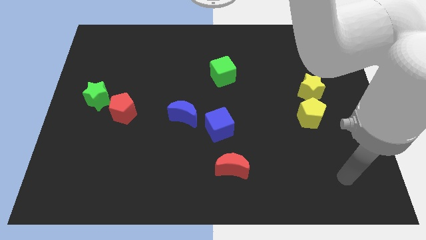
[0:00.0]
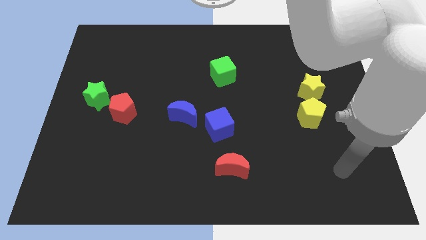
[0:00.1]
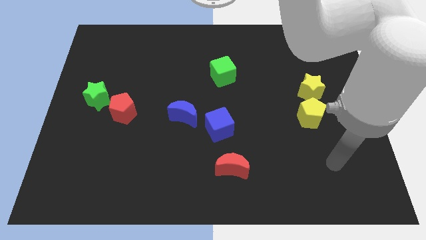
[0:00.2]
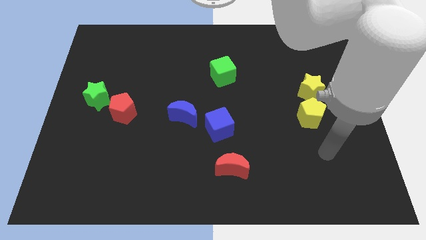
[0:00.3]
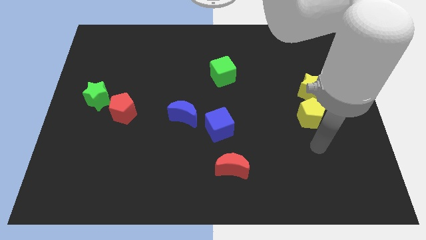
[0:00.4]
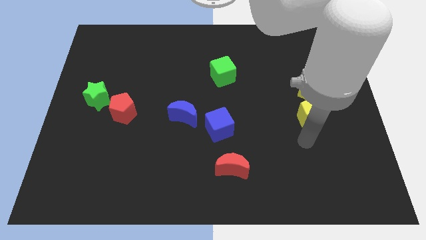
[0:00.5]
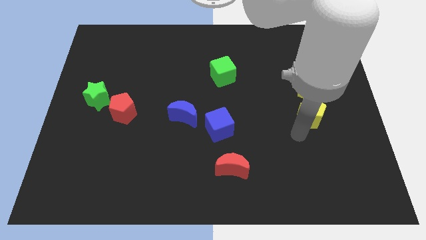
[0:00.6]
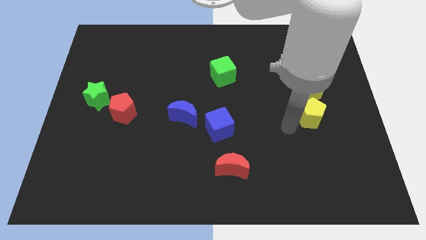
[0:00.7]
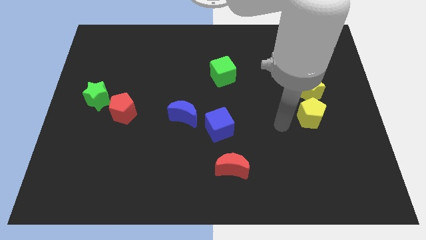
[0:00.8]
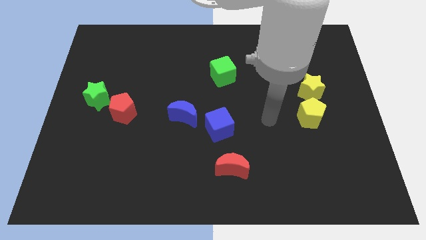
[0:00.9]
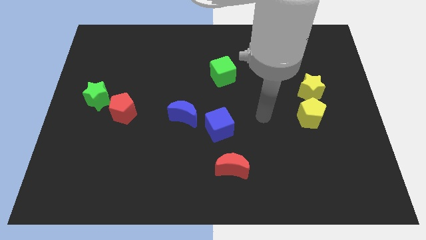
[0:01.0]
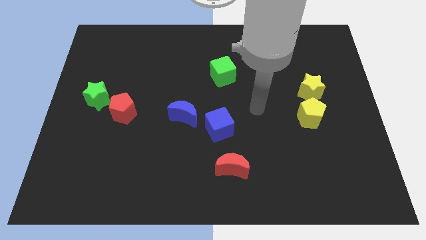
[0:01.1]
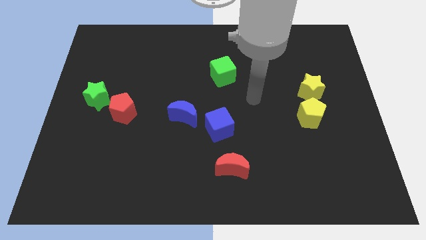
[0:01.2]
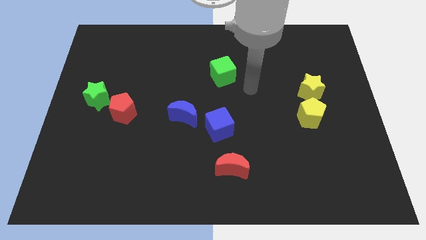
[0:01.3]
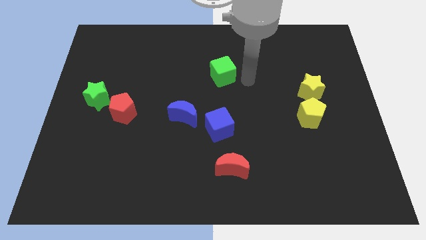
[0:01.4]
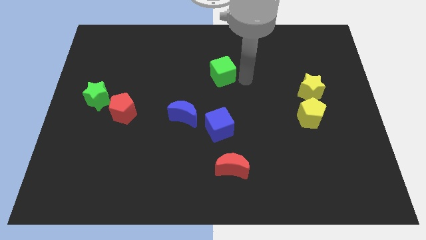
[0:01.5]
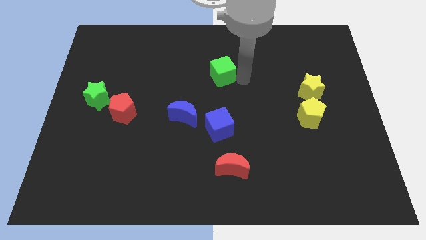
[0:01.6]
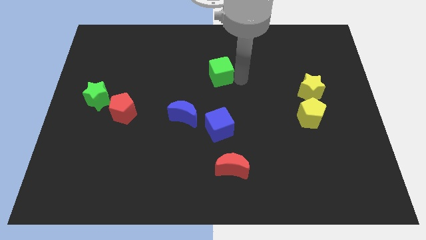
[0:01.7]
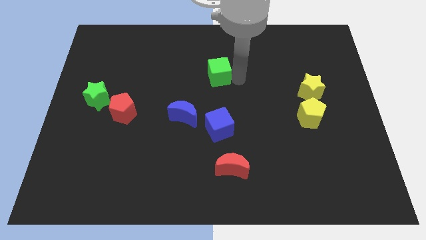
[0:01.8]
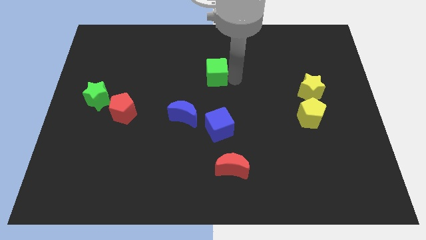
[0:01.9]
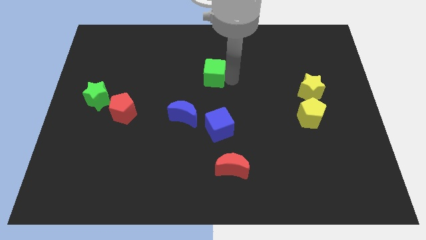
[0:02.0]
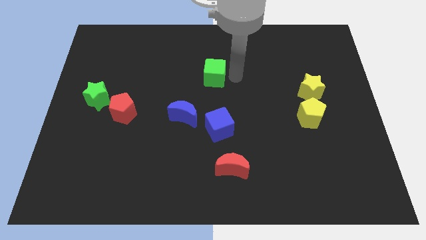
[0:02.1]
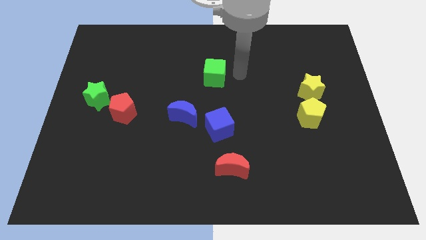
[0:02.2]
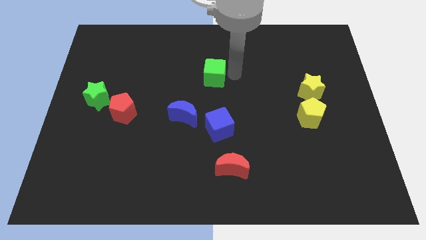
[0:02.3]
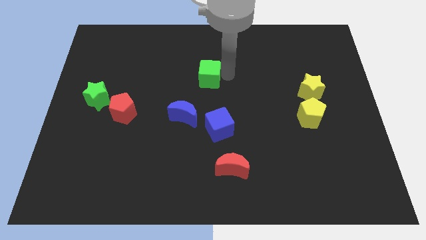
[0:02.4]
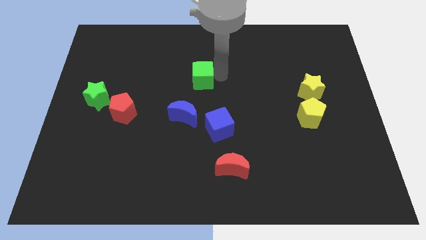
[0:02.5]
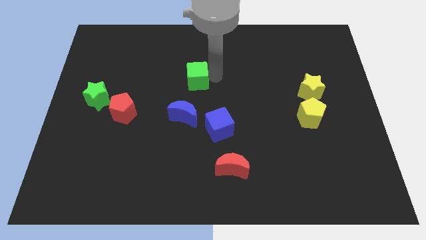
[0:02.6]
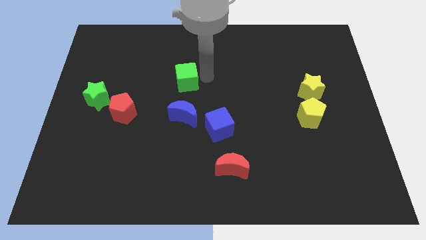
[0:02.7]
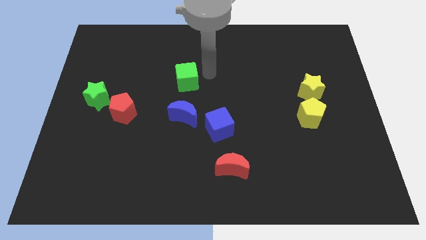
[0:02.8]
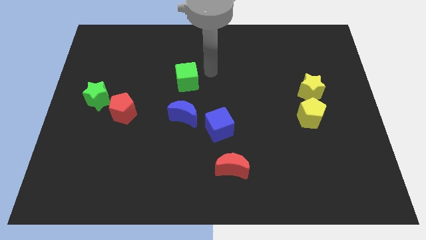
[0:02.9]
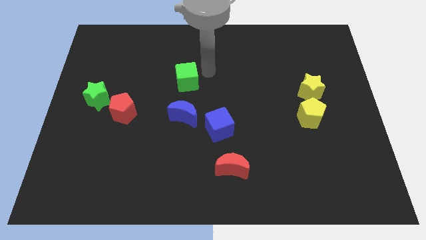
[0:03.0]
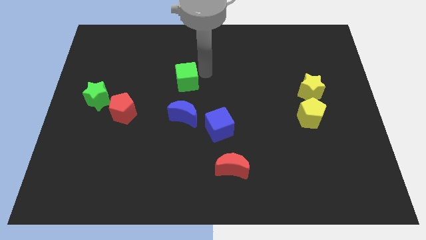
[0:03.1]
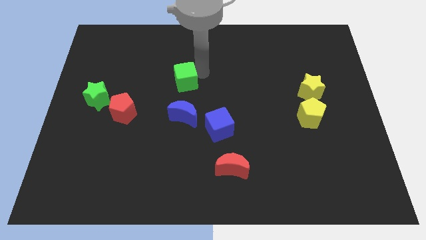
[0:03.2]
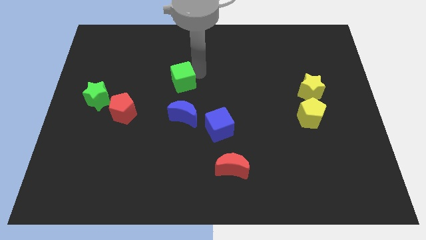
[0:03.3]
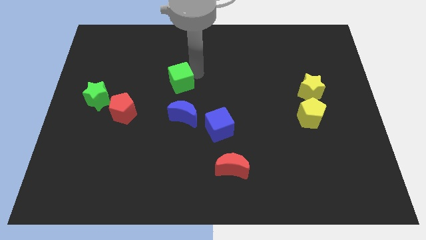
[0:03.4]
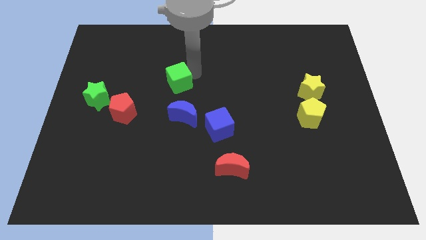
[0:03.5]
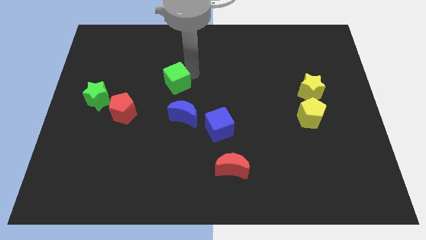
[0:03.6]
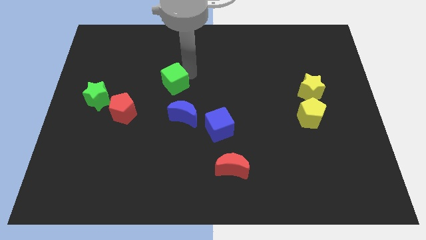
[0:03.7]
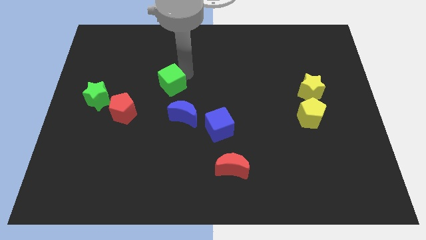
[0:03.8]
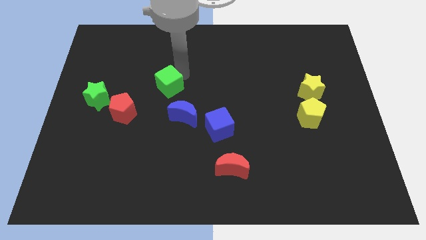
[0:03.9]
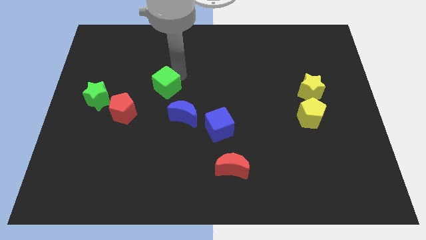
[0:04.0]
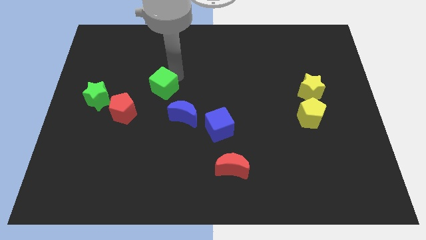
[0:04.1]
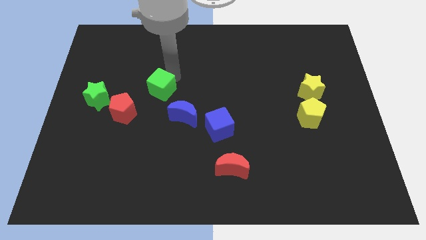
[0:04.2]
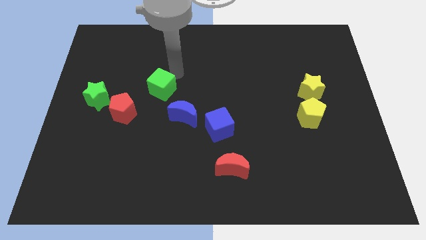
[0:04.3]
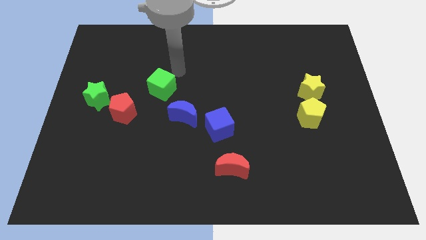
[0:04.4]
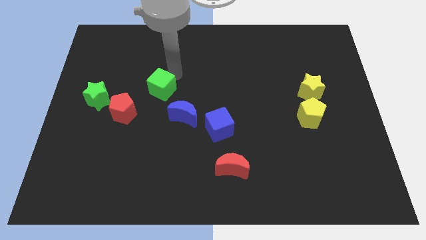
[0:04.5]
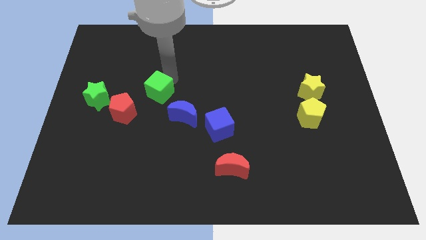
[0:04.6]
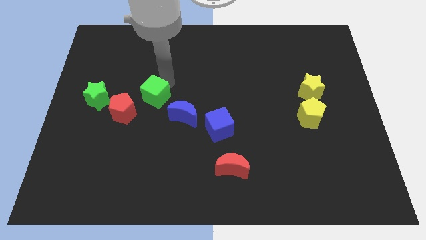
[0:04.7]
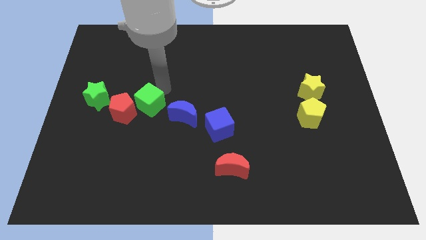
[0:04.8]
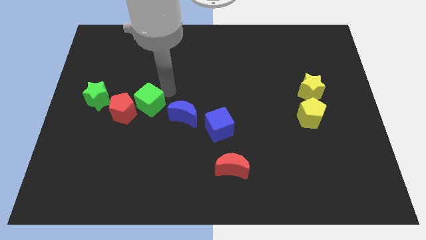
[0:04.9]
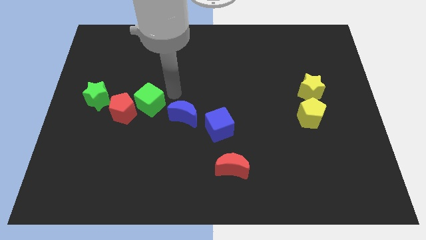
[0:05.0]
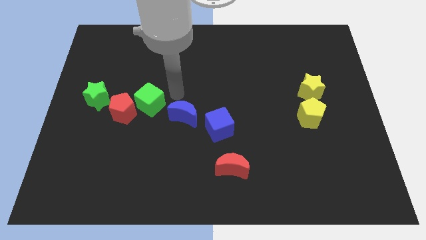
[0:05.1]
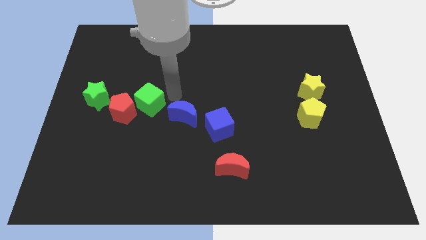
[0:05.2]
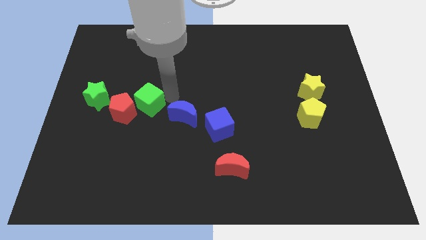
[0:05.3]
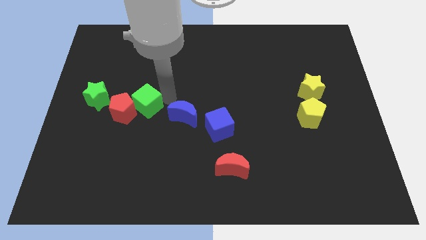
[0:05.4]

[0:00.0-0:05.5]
move the green cube close to the red pentagon

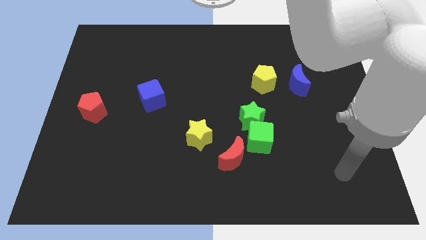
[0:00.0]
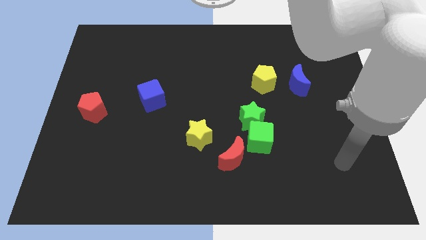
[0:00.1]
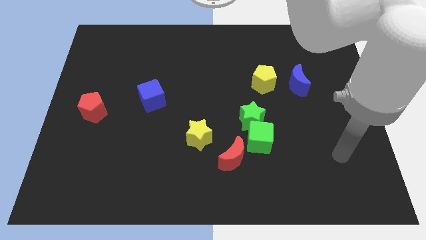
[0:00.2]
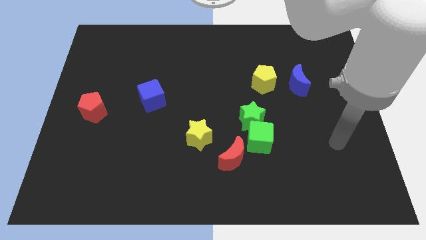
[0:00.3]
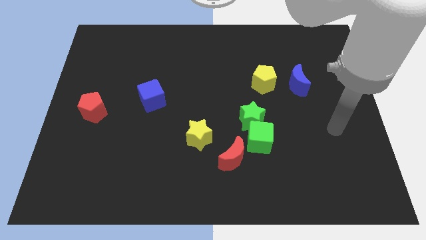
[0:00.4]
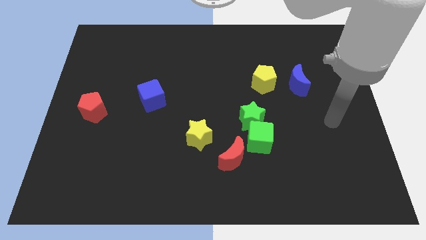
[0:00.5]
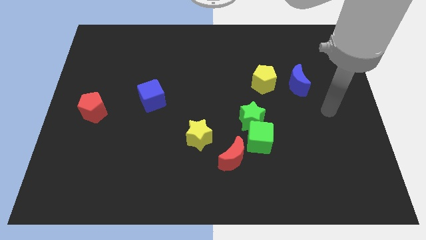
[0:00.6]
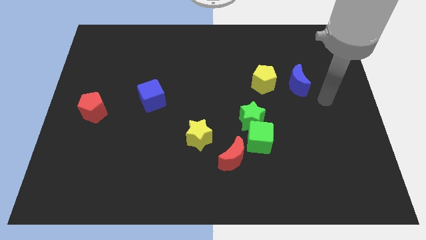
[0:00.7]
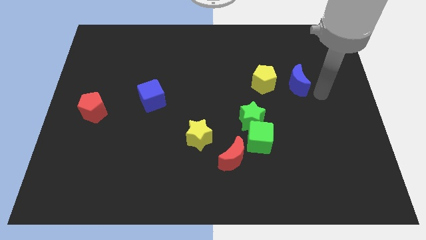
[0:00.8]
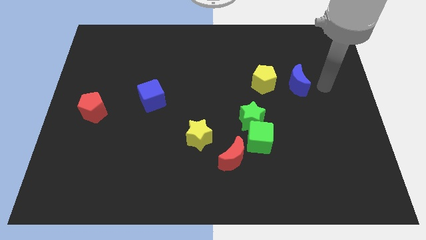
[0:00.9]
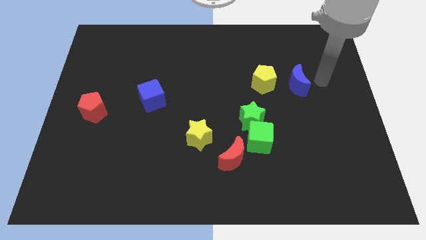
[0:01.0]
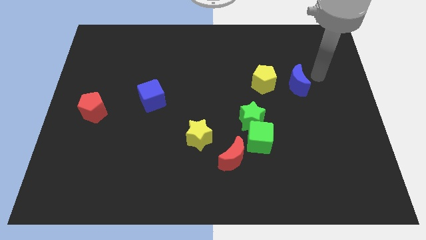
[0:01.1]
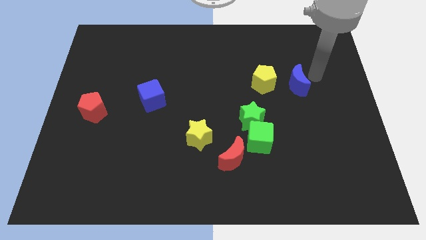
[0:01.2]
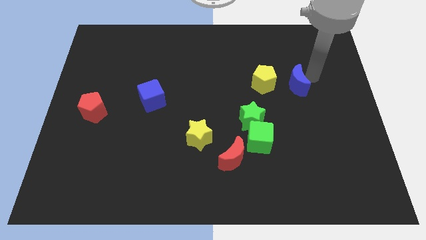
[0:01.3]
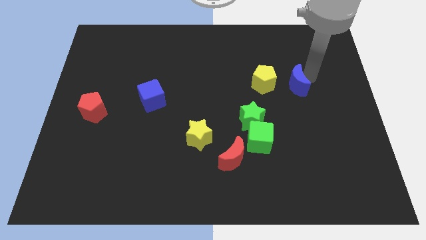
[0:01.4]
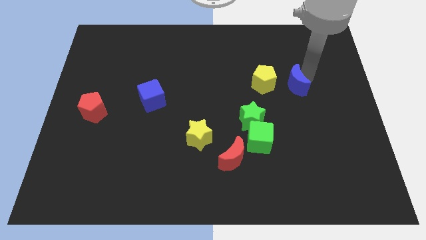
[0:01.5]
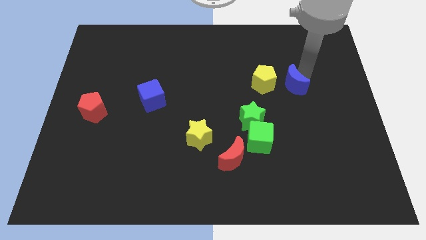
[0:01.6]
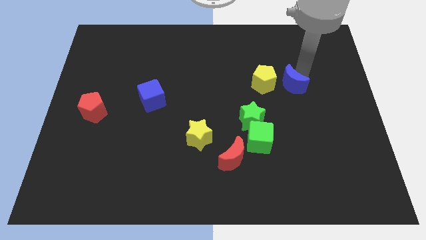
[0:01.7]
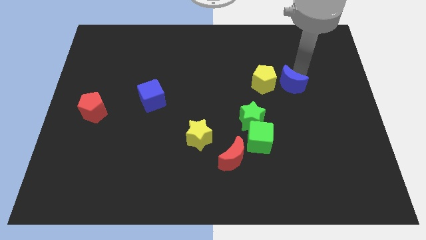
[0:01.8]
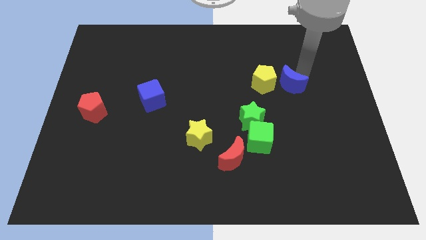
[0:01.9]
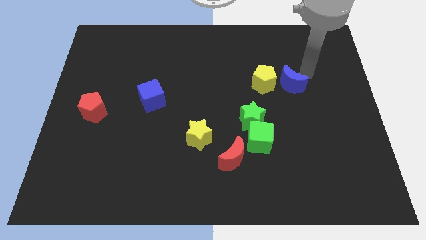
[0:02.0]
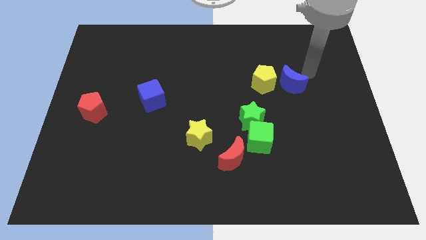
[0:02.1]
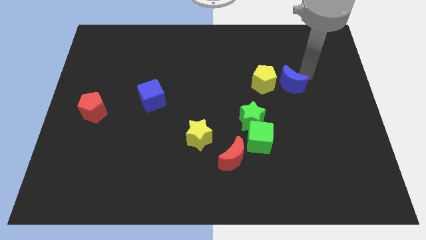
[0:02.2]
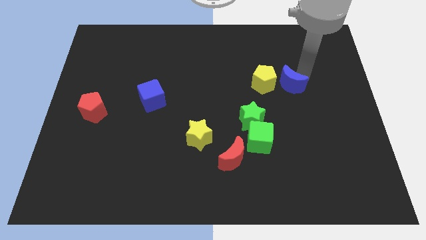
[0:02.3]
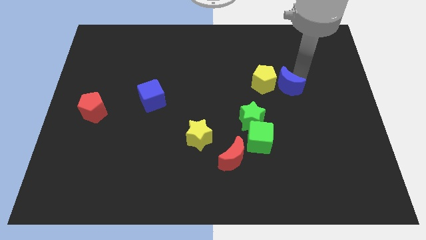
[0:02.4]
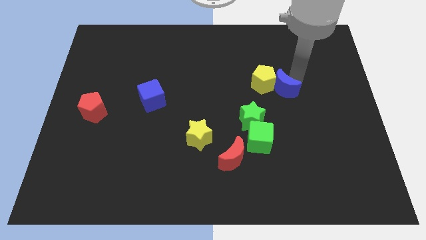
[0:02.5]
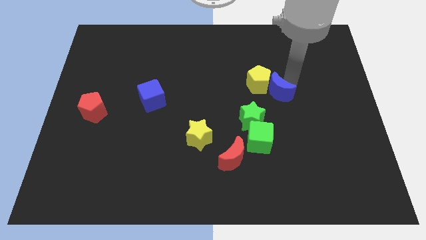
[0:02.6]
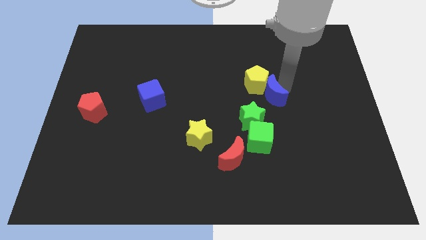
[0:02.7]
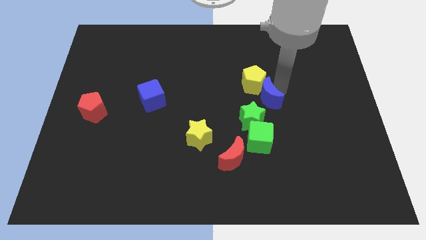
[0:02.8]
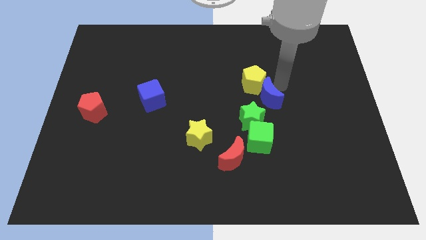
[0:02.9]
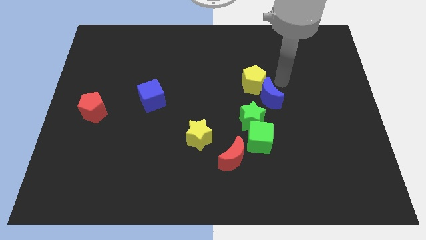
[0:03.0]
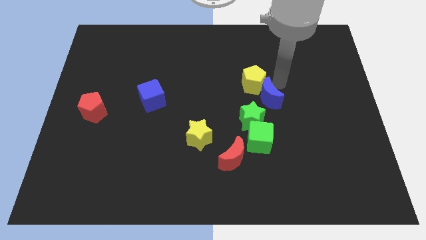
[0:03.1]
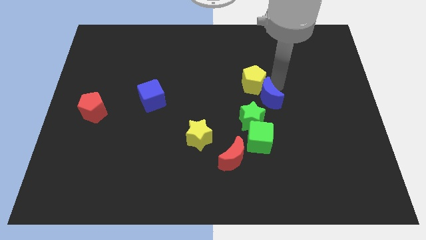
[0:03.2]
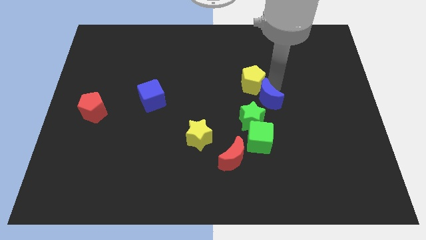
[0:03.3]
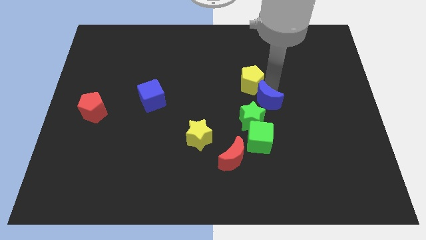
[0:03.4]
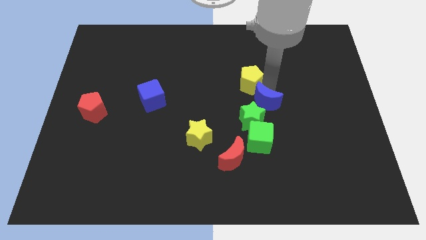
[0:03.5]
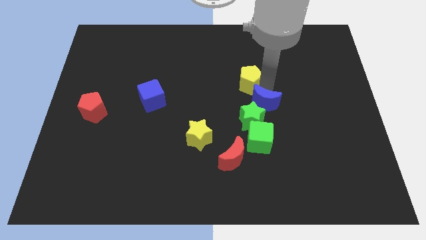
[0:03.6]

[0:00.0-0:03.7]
slide the blue moon close to the green star
